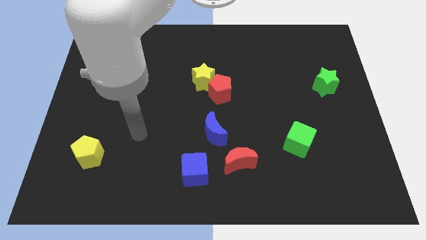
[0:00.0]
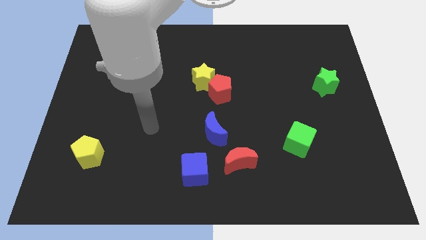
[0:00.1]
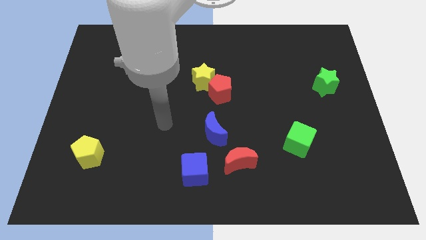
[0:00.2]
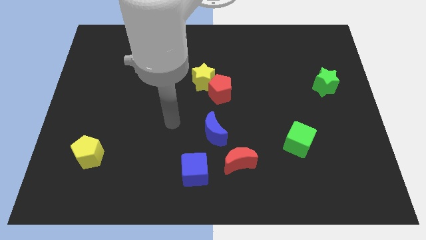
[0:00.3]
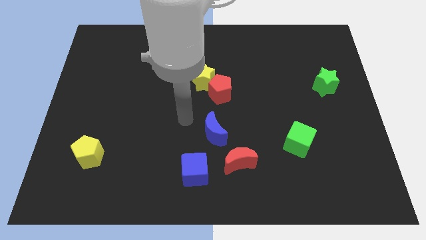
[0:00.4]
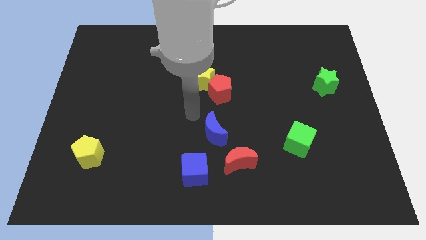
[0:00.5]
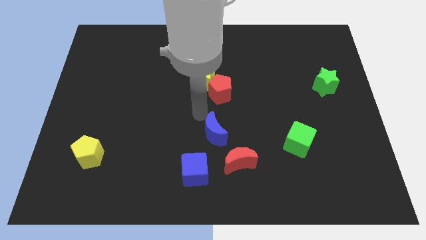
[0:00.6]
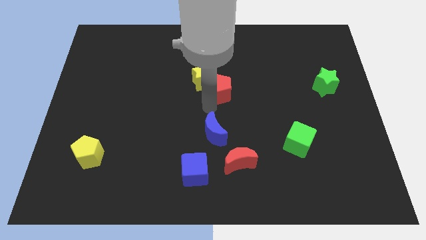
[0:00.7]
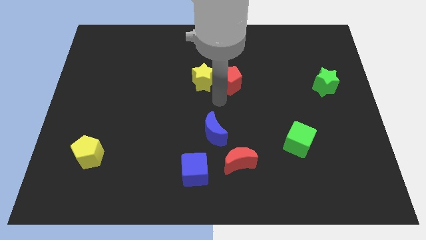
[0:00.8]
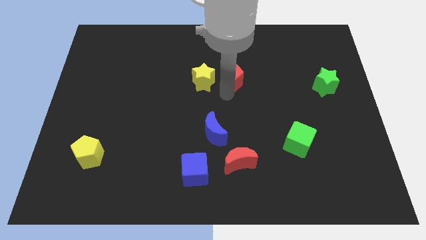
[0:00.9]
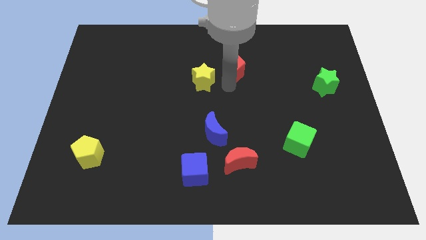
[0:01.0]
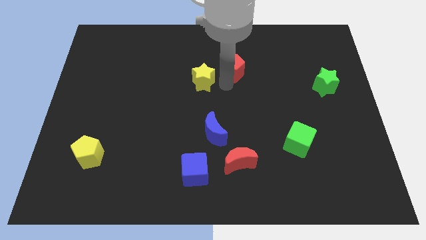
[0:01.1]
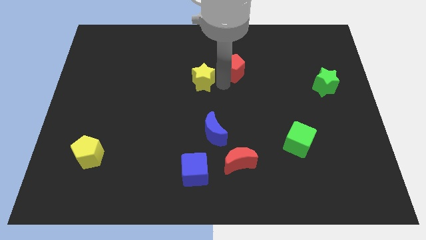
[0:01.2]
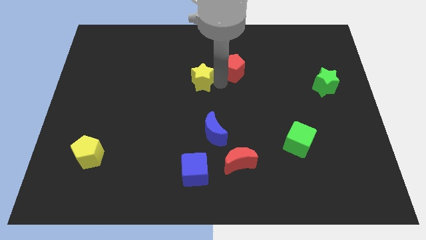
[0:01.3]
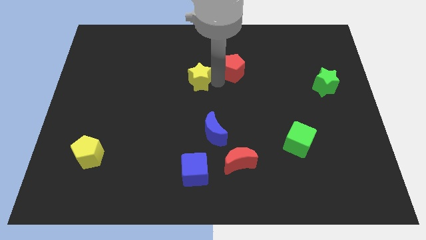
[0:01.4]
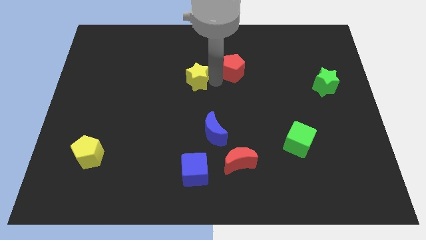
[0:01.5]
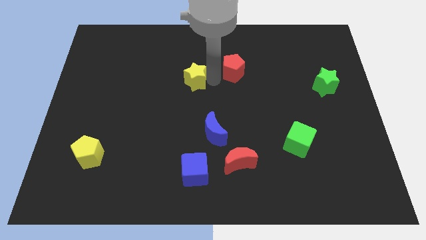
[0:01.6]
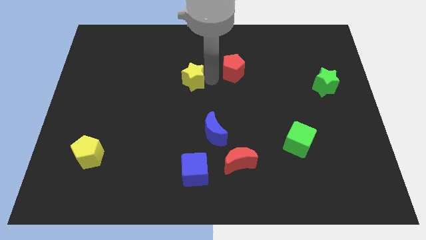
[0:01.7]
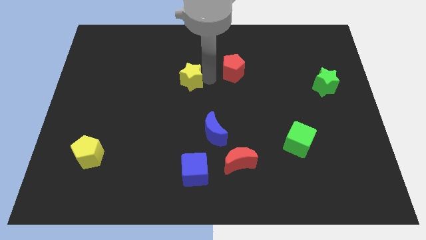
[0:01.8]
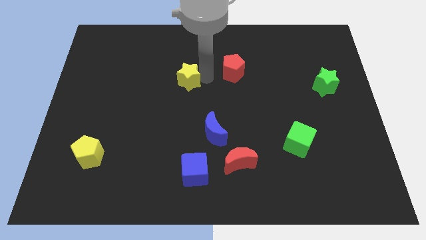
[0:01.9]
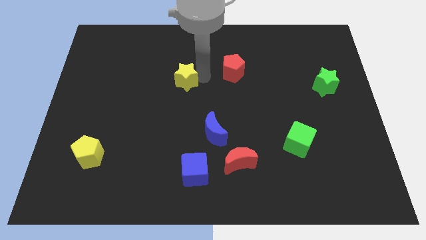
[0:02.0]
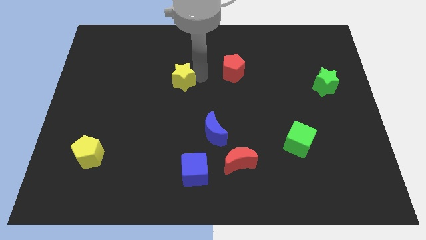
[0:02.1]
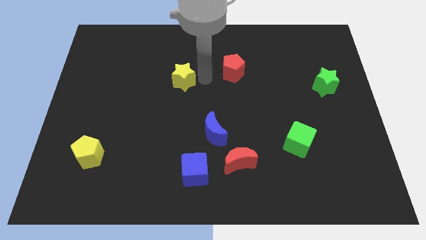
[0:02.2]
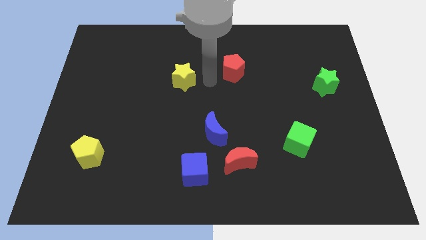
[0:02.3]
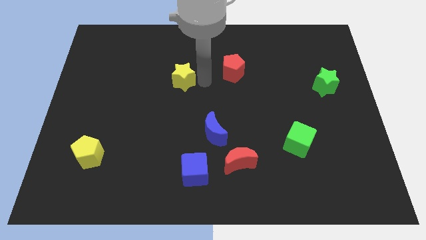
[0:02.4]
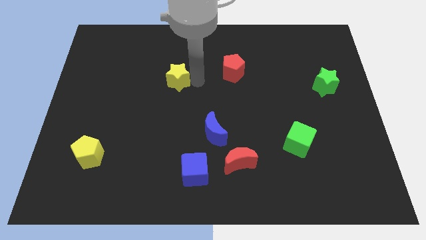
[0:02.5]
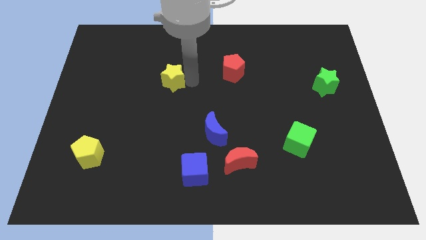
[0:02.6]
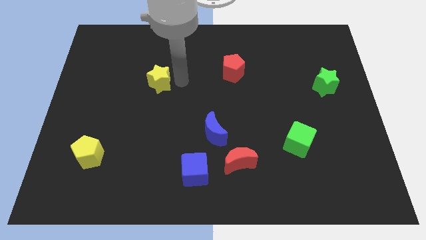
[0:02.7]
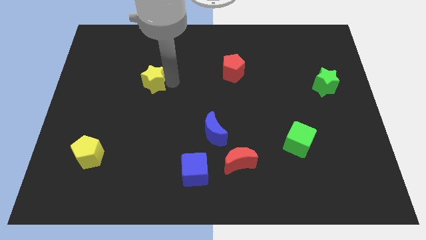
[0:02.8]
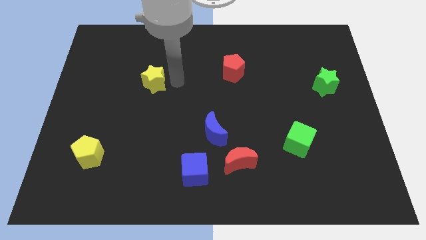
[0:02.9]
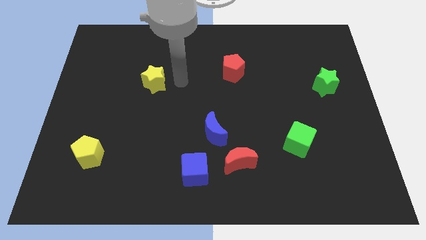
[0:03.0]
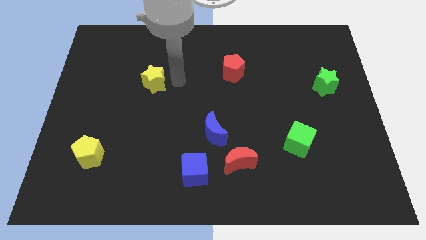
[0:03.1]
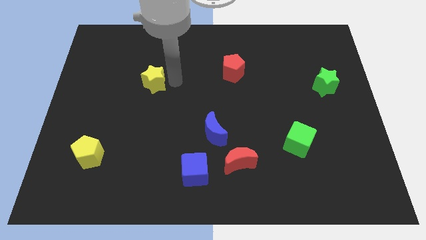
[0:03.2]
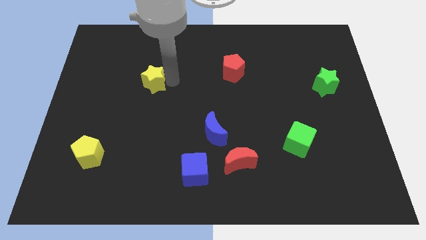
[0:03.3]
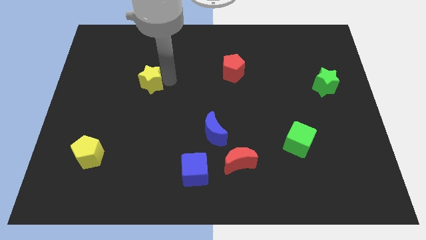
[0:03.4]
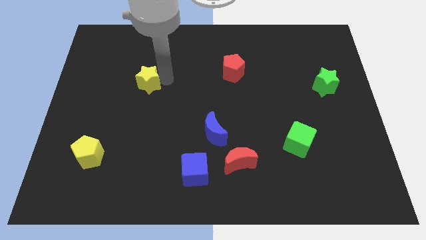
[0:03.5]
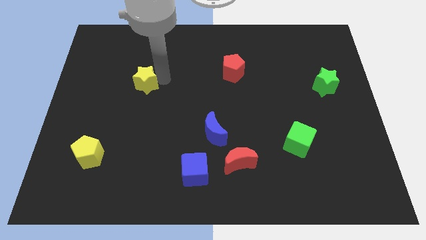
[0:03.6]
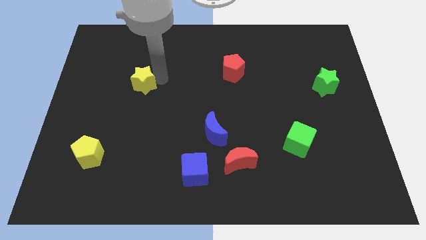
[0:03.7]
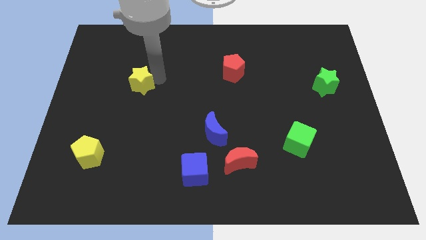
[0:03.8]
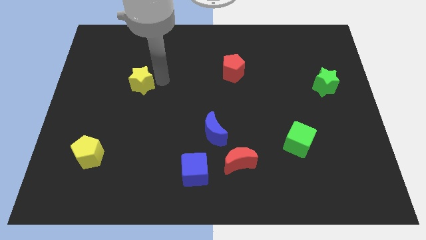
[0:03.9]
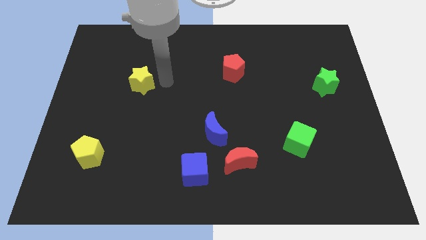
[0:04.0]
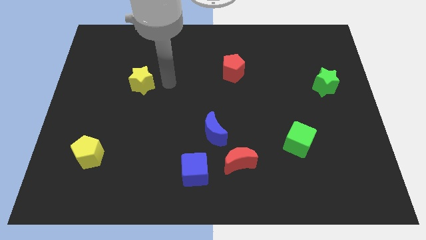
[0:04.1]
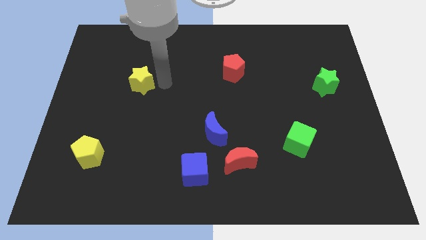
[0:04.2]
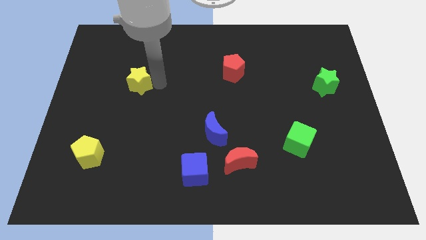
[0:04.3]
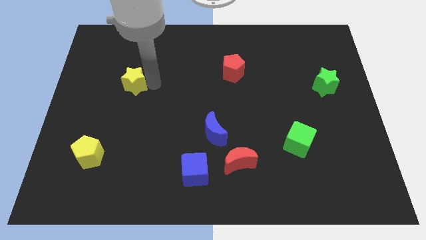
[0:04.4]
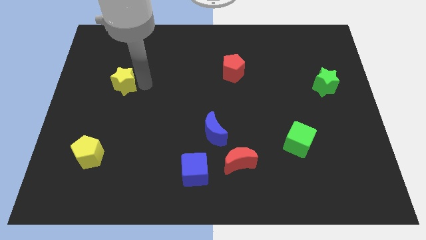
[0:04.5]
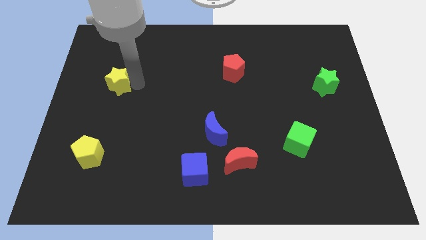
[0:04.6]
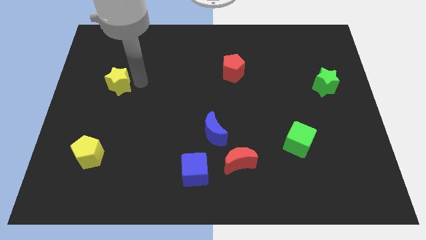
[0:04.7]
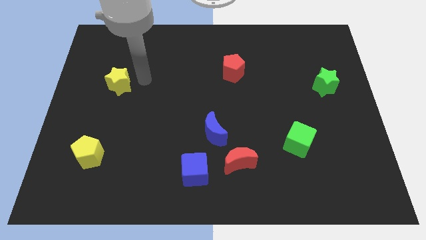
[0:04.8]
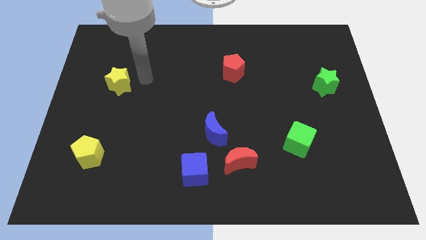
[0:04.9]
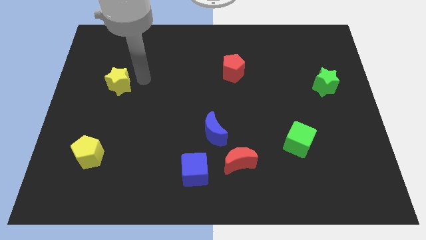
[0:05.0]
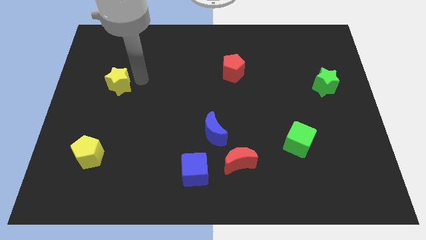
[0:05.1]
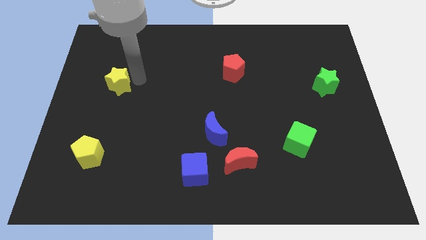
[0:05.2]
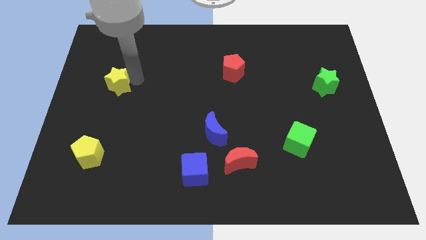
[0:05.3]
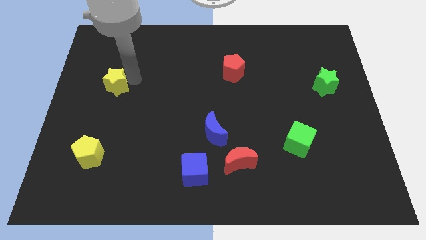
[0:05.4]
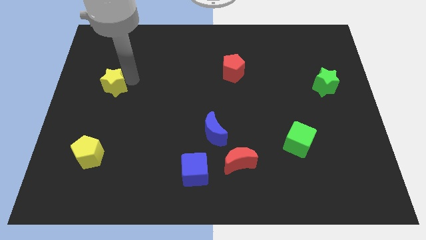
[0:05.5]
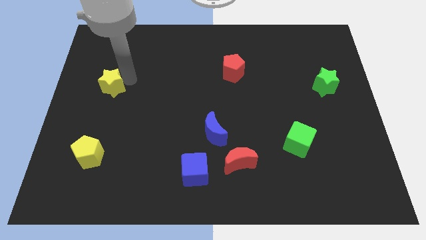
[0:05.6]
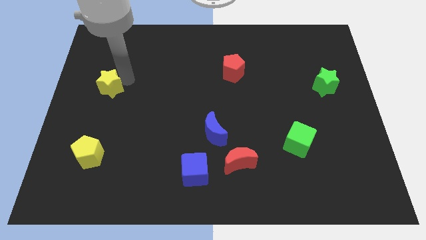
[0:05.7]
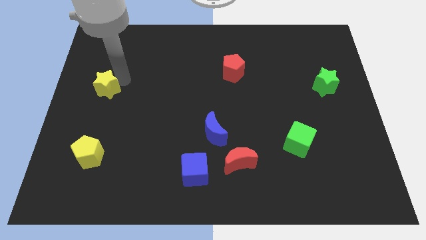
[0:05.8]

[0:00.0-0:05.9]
move the yellow star to the left side
